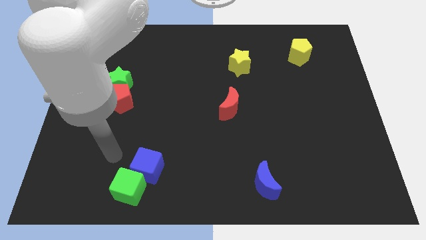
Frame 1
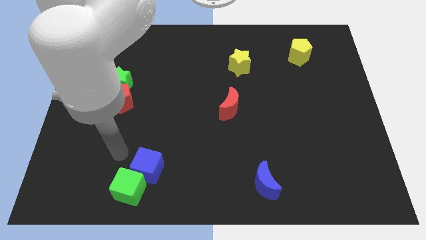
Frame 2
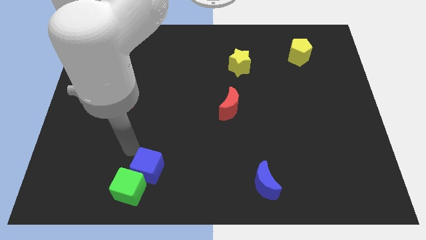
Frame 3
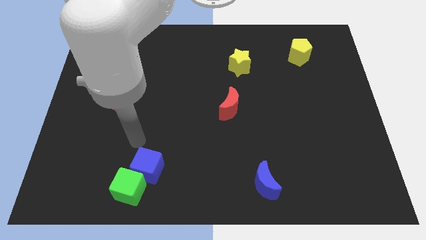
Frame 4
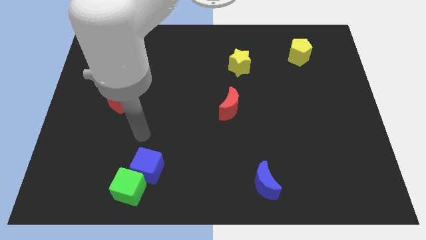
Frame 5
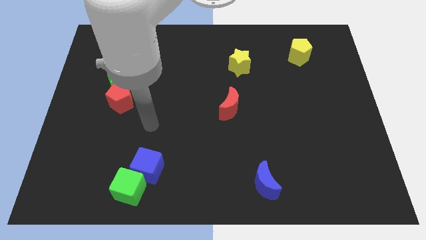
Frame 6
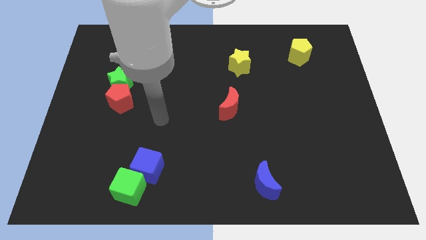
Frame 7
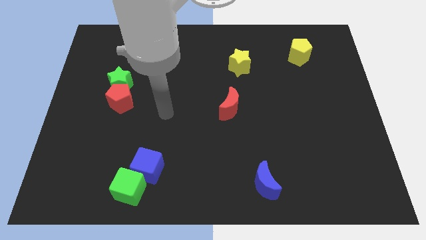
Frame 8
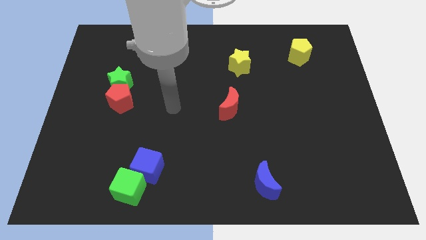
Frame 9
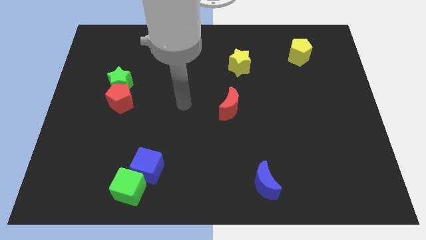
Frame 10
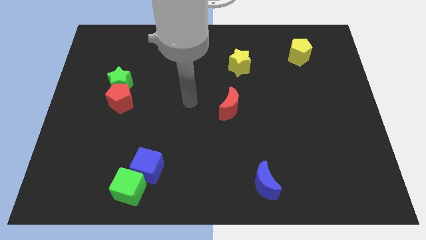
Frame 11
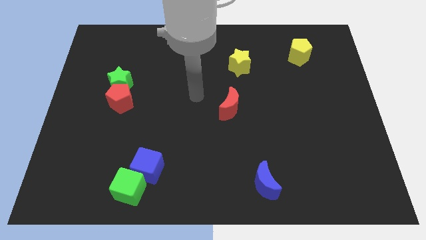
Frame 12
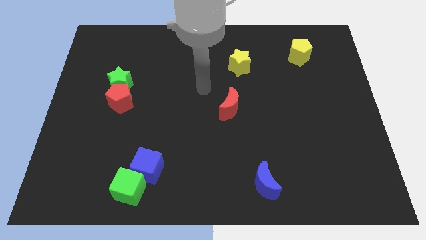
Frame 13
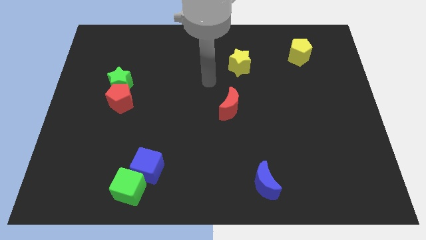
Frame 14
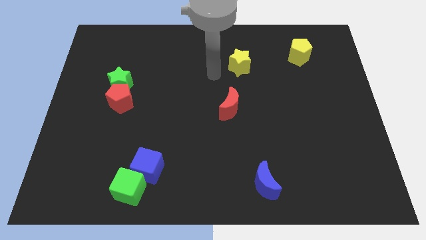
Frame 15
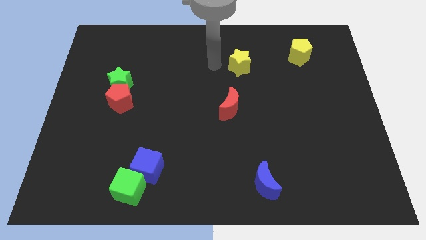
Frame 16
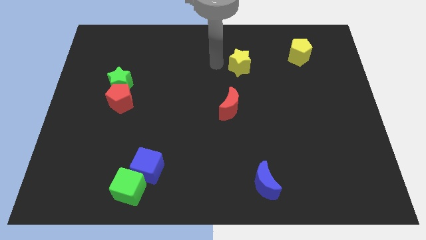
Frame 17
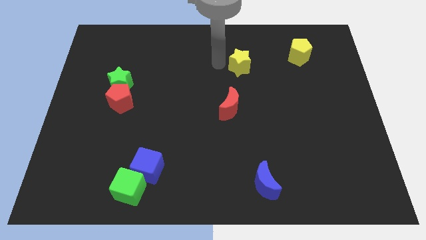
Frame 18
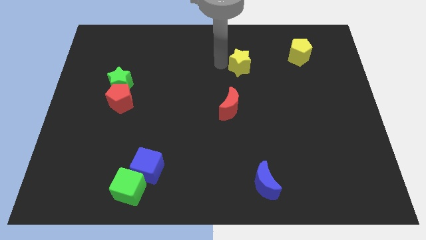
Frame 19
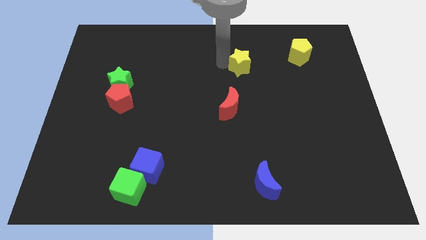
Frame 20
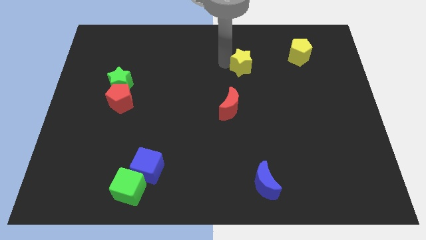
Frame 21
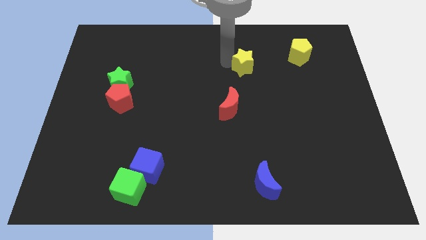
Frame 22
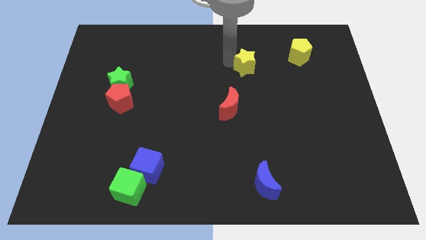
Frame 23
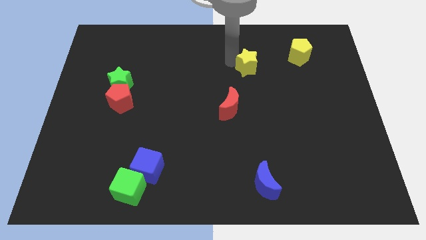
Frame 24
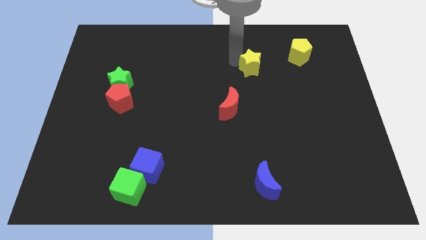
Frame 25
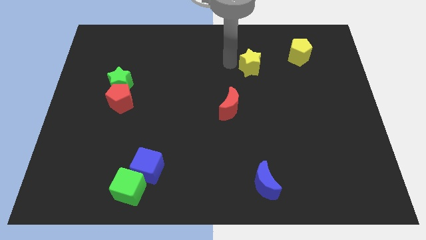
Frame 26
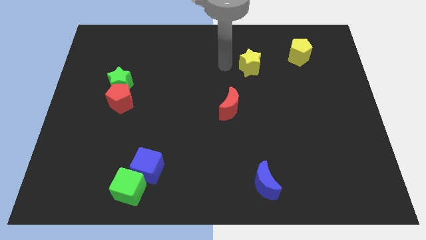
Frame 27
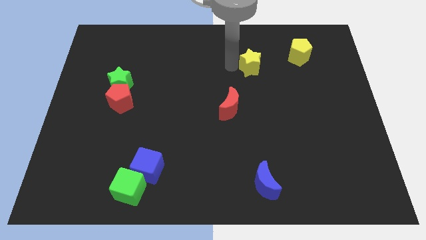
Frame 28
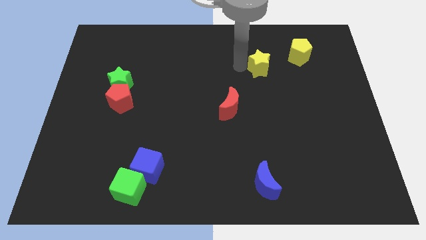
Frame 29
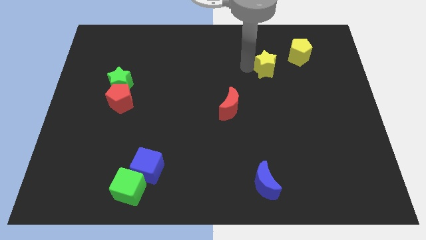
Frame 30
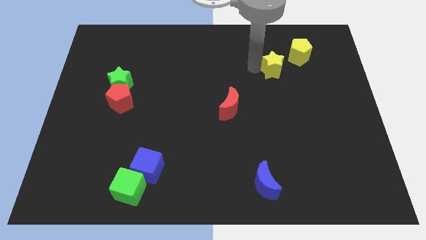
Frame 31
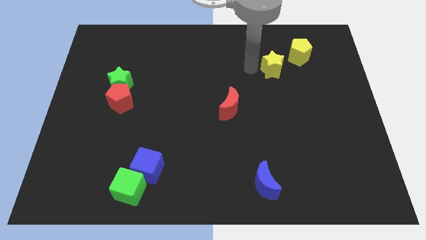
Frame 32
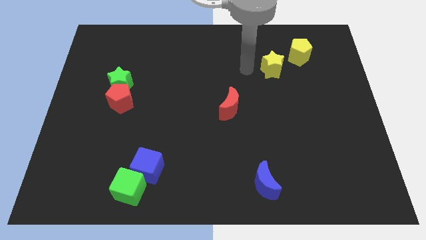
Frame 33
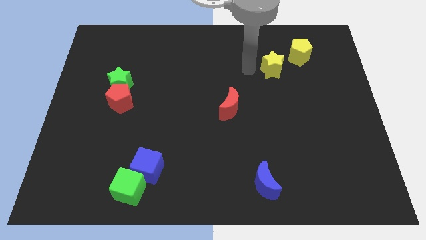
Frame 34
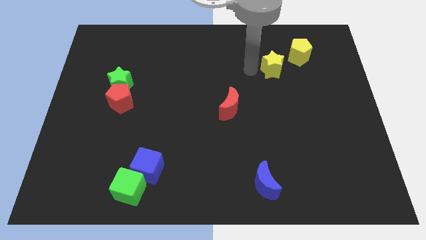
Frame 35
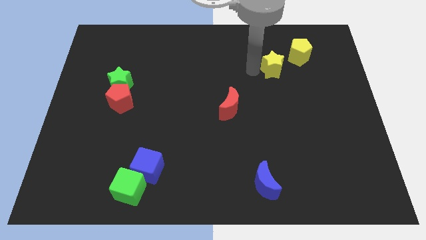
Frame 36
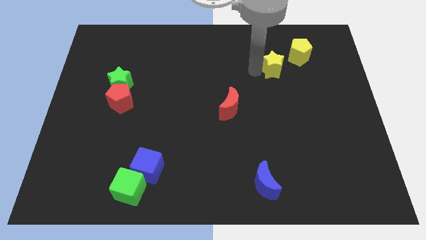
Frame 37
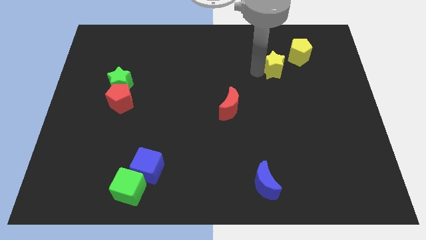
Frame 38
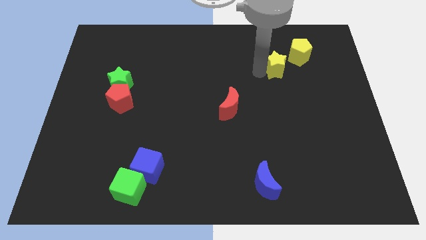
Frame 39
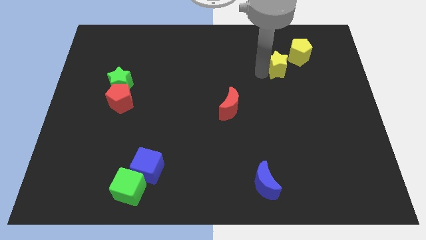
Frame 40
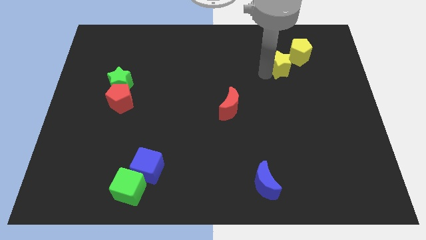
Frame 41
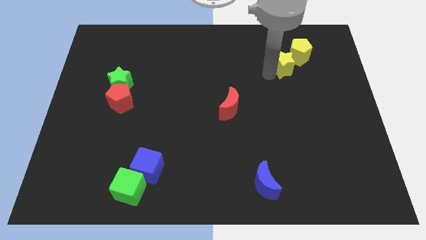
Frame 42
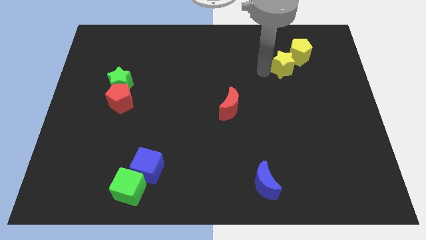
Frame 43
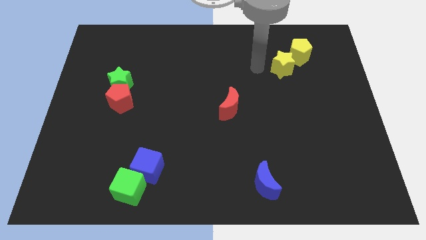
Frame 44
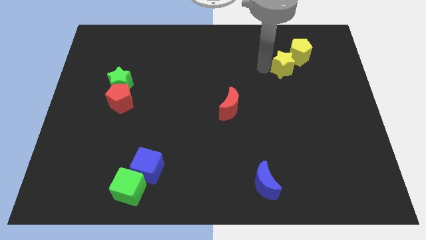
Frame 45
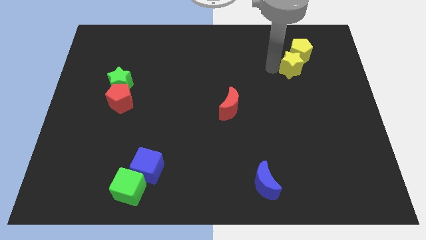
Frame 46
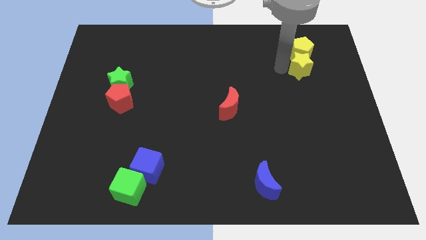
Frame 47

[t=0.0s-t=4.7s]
put the yellow star to the bottom right of the yellow pentagon

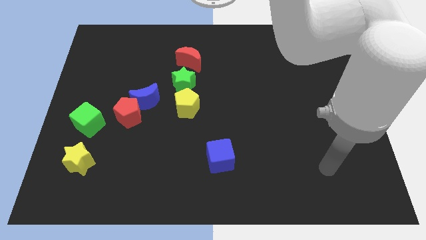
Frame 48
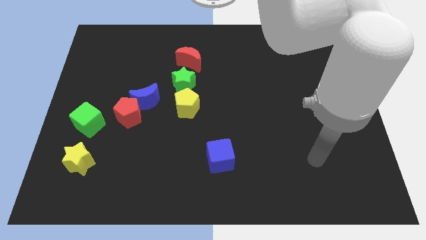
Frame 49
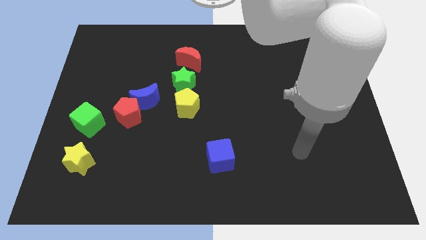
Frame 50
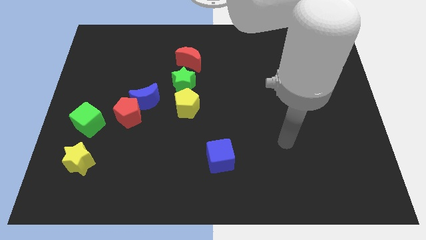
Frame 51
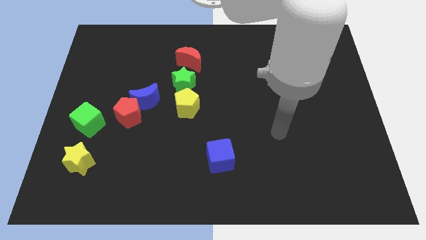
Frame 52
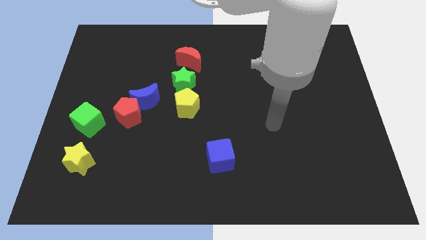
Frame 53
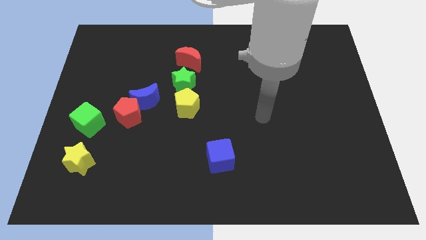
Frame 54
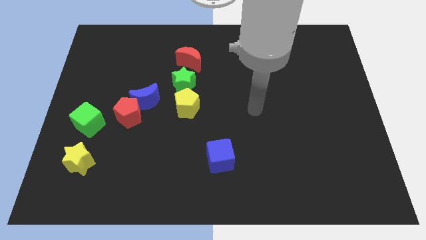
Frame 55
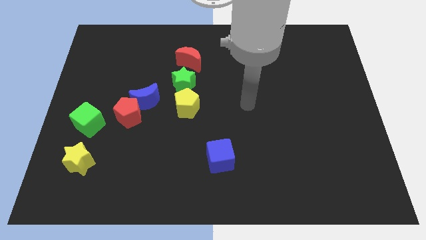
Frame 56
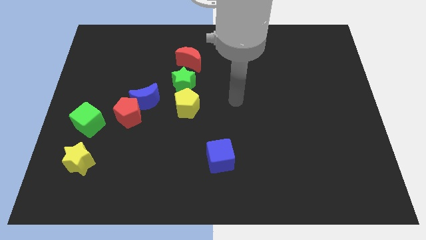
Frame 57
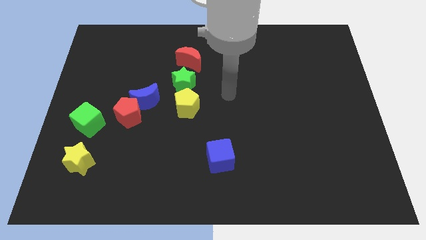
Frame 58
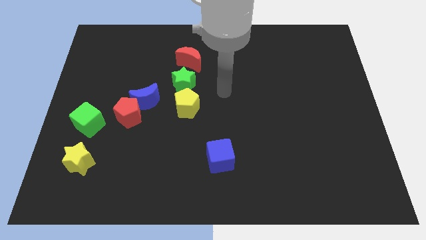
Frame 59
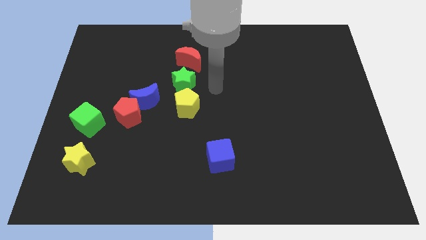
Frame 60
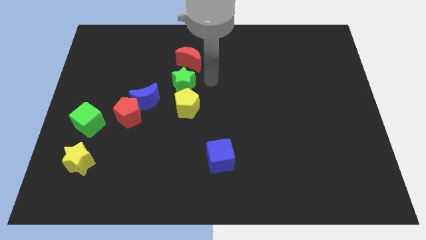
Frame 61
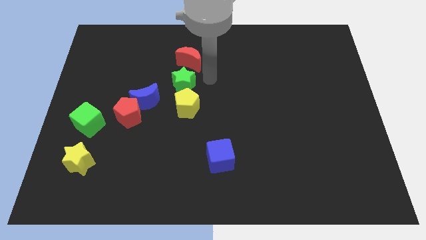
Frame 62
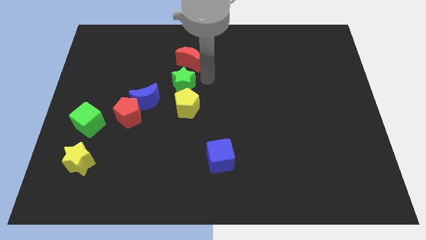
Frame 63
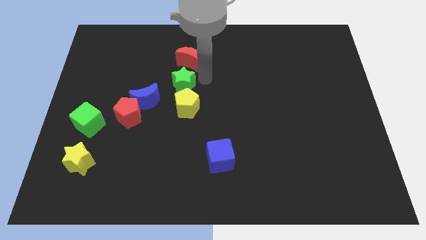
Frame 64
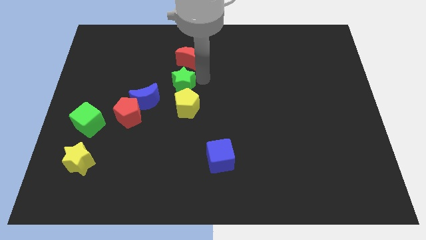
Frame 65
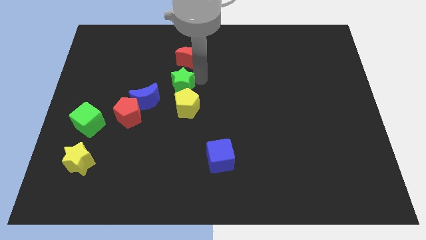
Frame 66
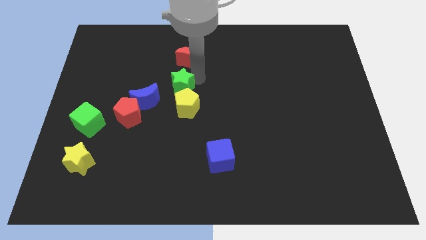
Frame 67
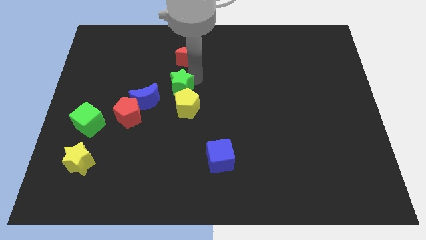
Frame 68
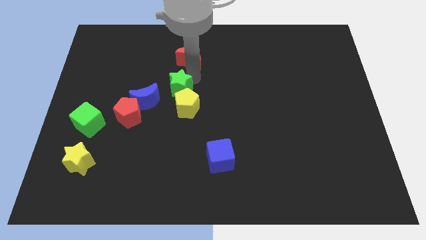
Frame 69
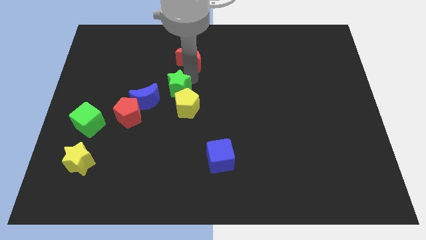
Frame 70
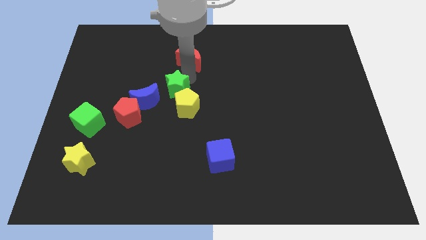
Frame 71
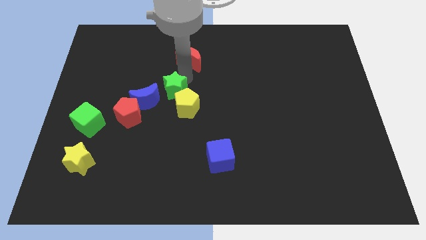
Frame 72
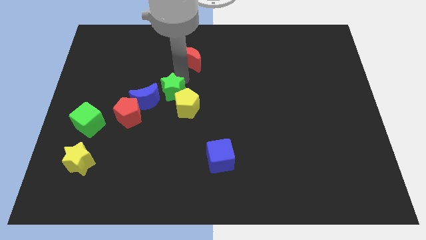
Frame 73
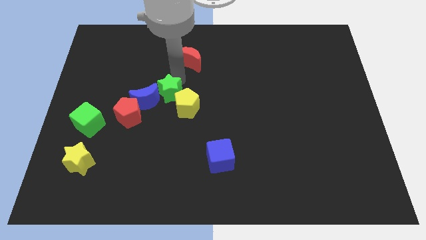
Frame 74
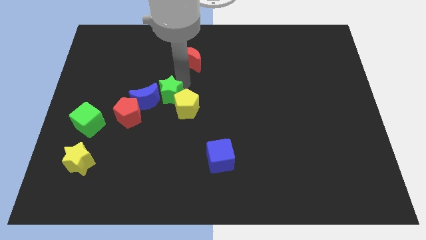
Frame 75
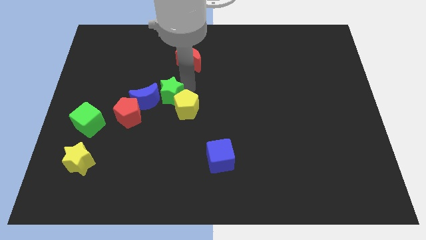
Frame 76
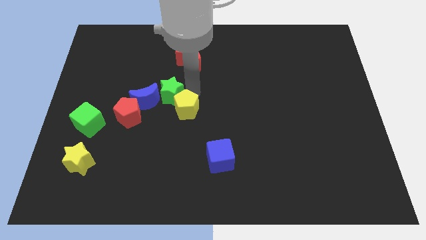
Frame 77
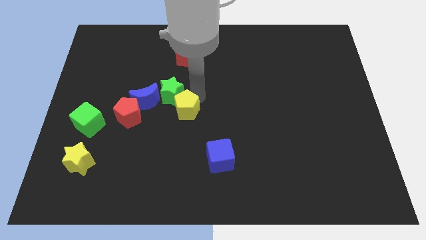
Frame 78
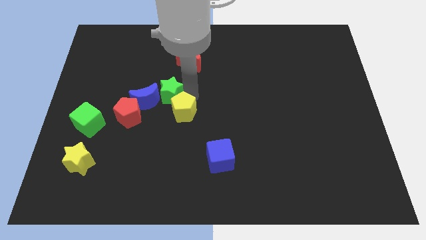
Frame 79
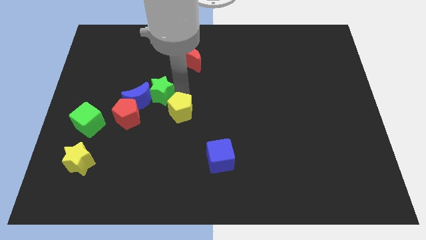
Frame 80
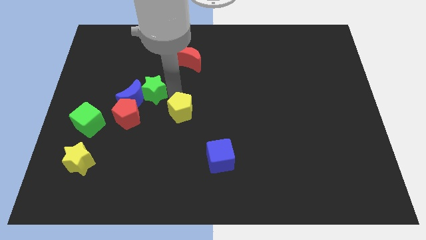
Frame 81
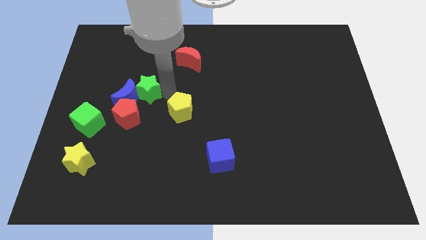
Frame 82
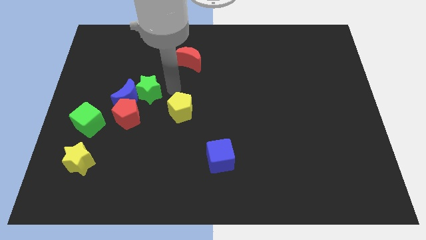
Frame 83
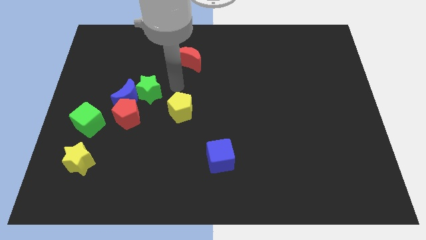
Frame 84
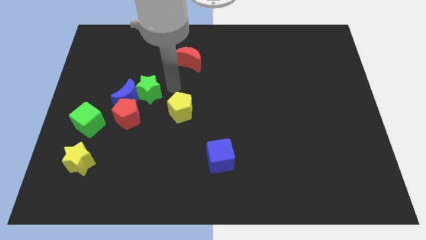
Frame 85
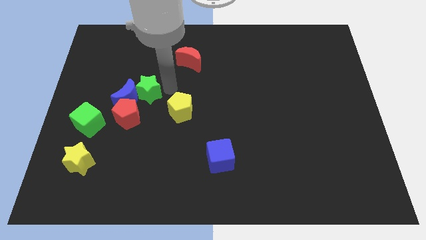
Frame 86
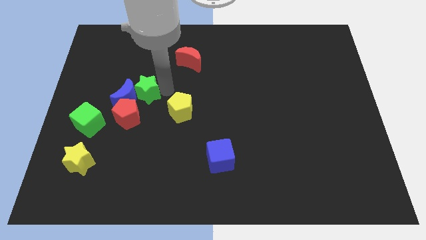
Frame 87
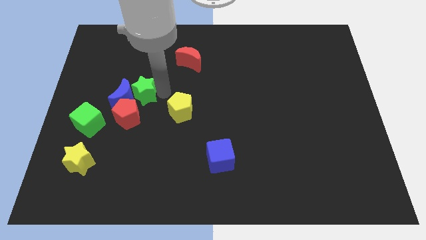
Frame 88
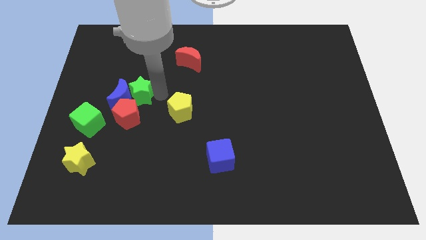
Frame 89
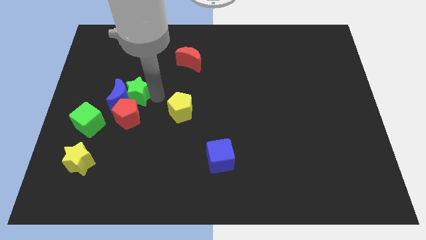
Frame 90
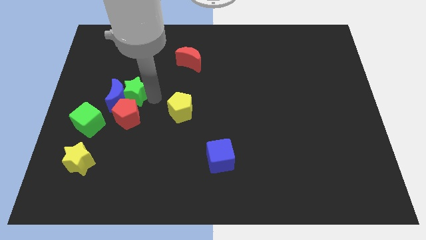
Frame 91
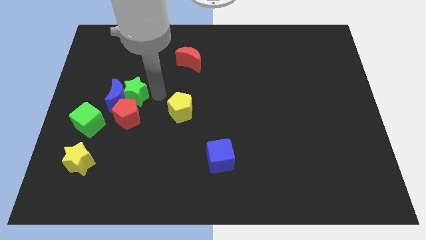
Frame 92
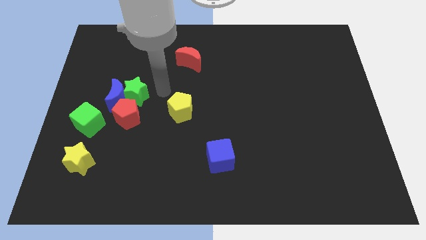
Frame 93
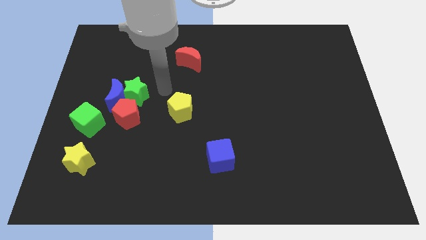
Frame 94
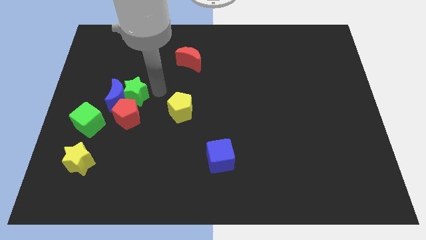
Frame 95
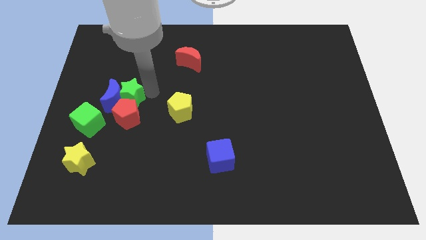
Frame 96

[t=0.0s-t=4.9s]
move the green star to the top left of the red pentagon
